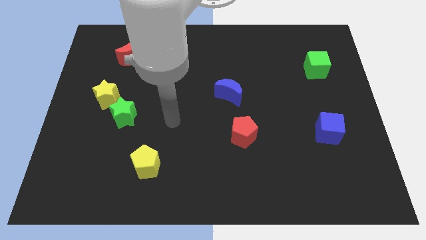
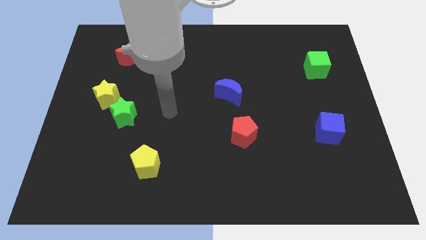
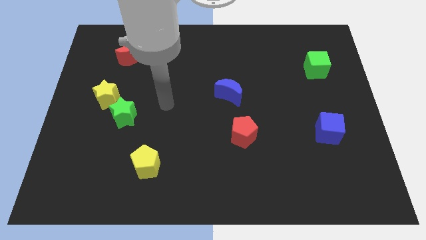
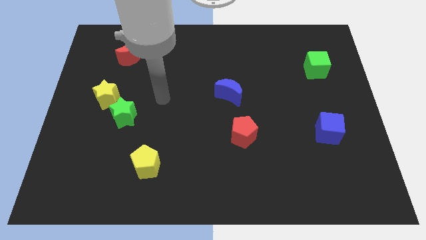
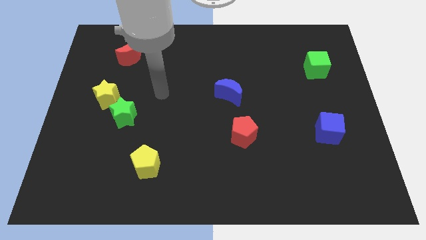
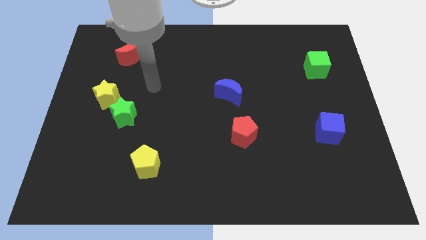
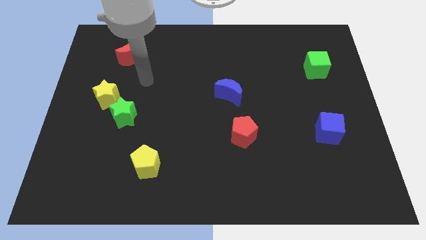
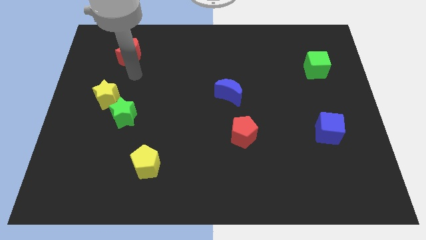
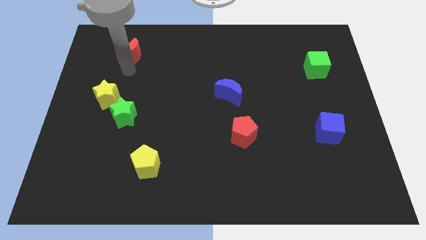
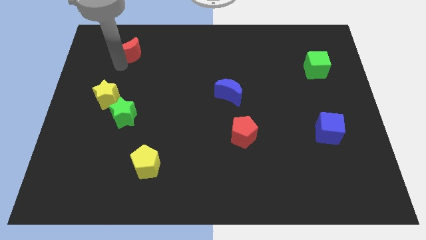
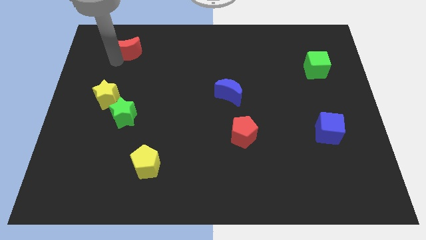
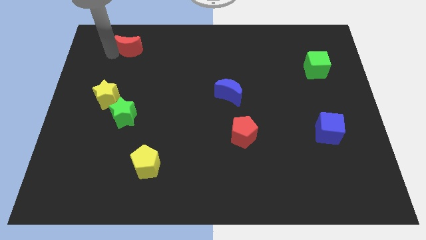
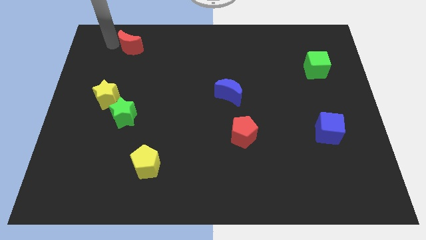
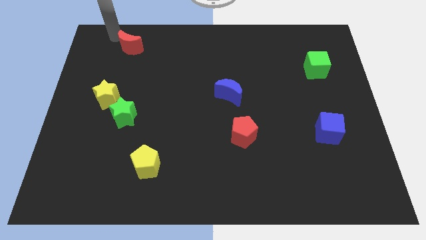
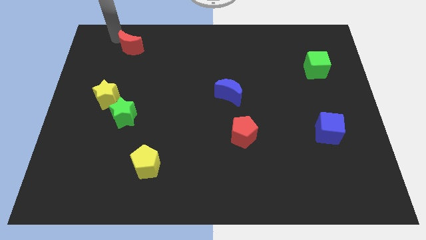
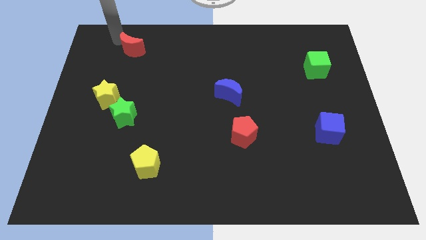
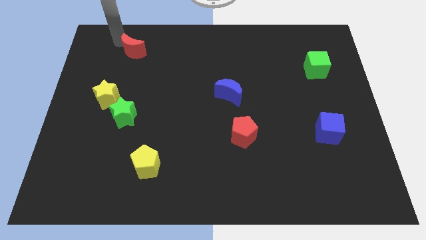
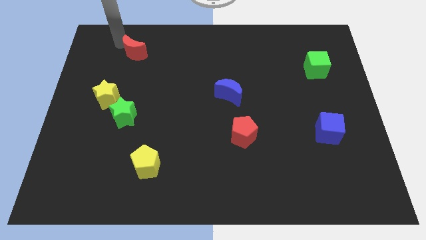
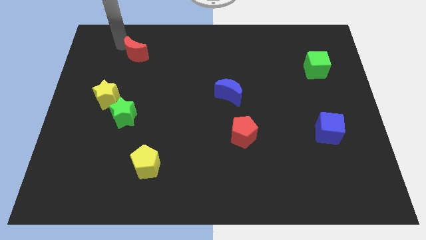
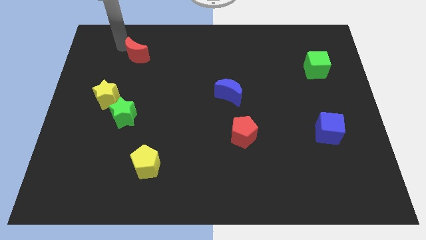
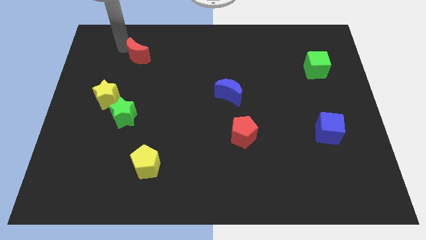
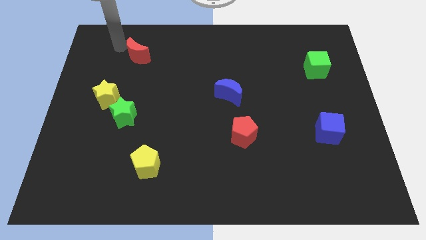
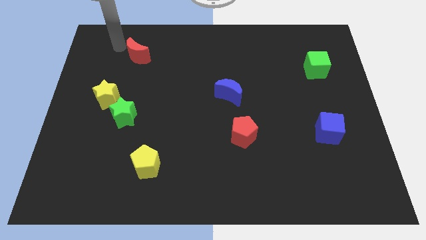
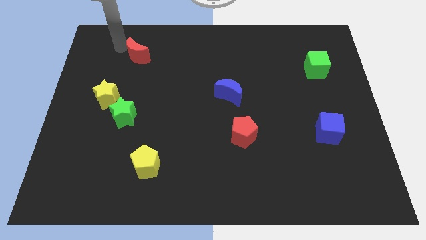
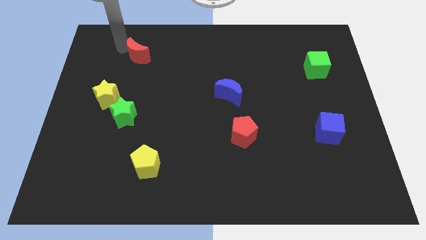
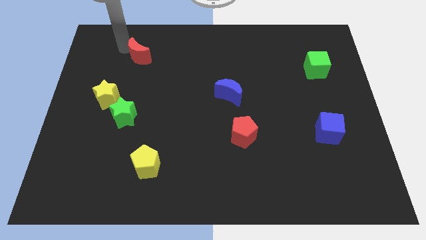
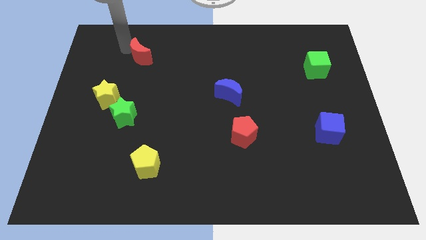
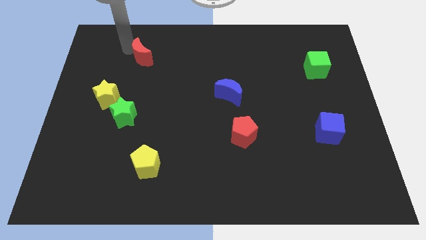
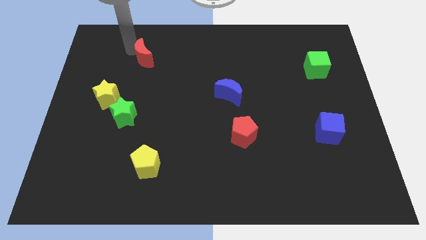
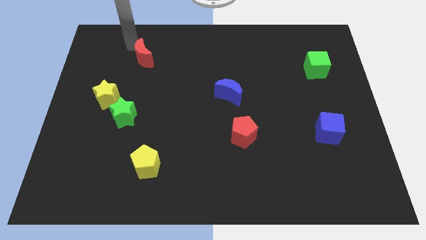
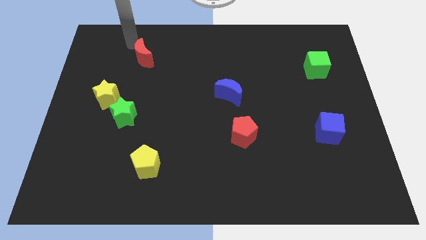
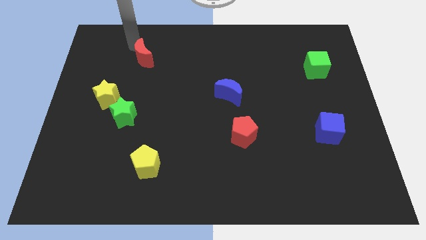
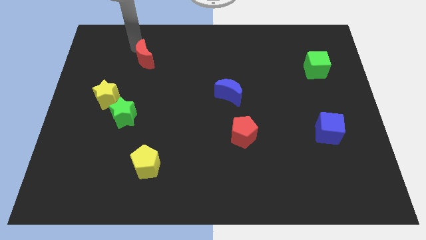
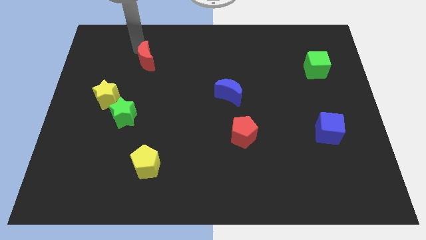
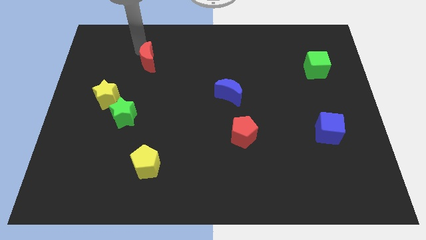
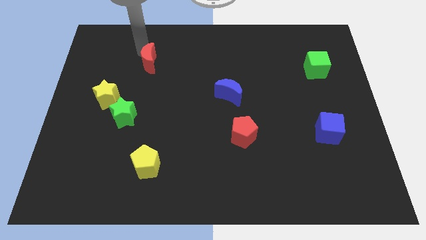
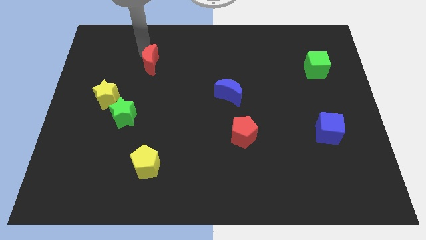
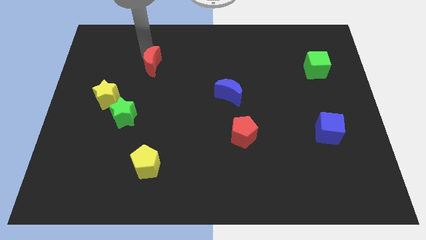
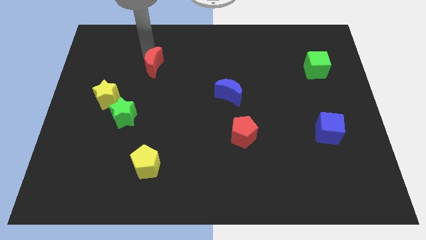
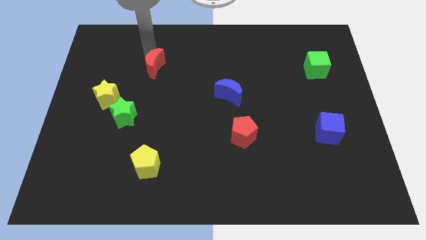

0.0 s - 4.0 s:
move the red moon diagonally downwards and right a little

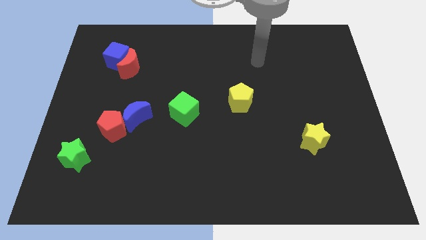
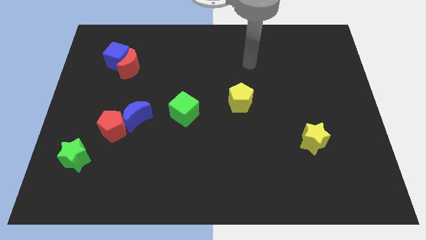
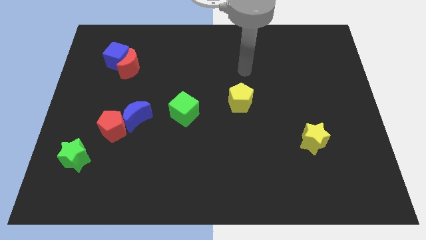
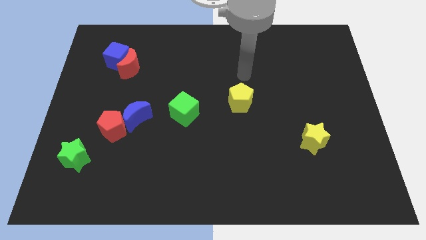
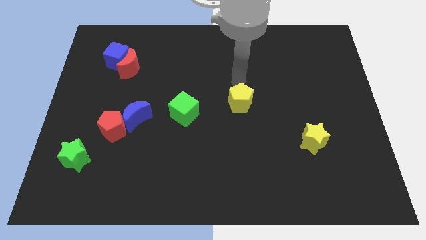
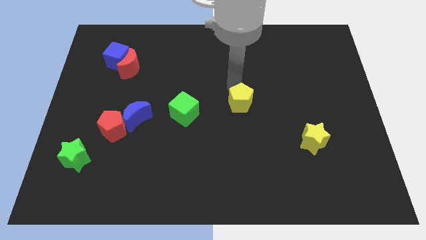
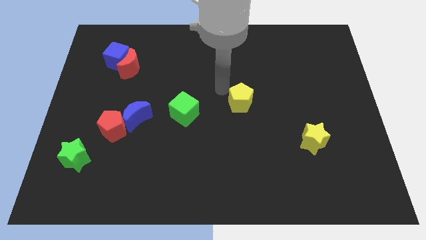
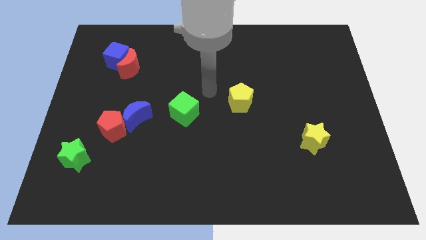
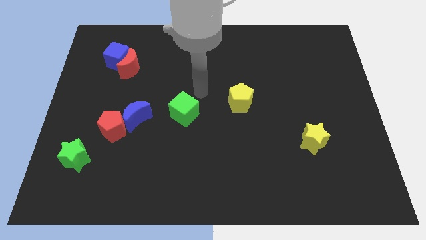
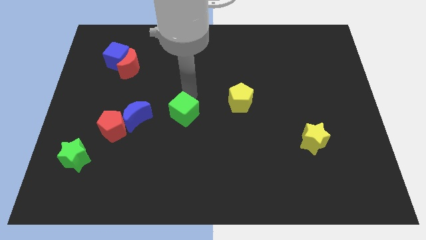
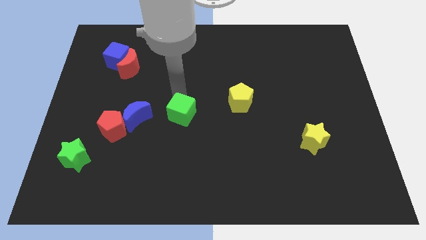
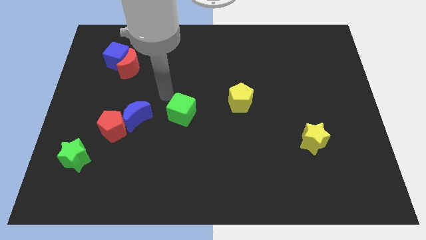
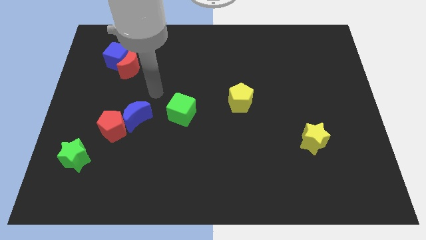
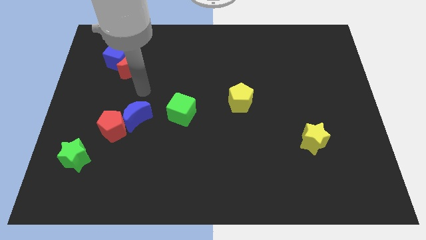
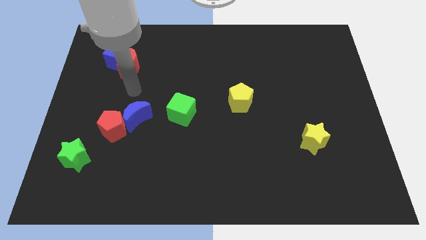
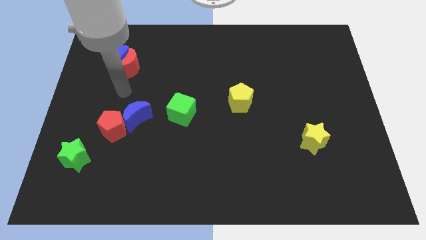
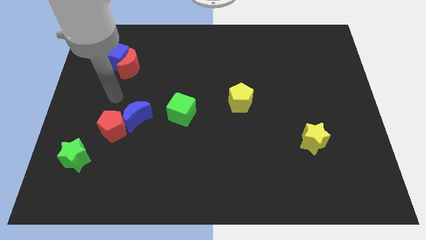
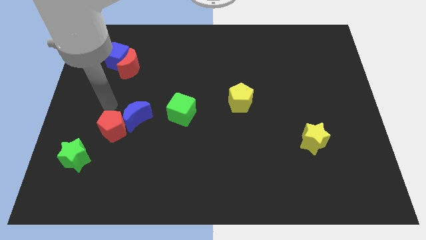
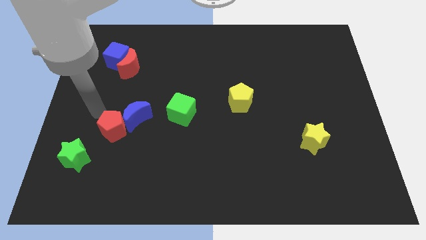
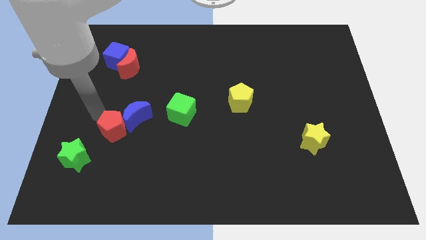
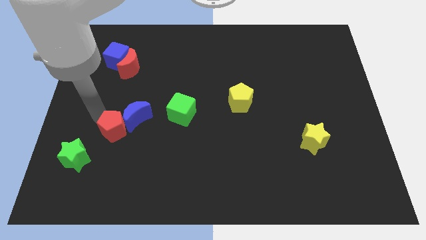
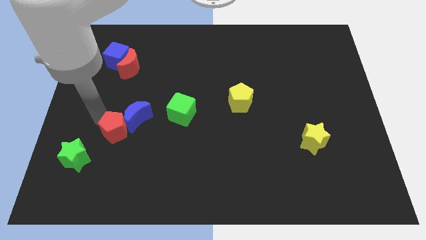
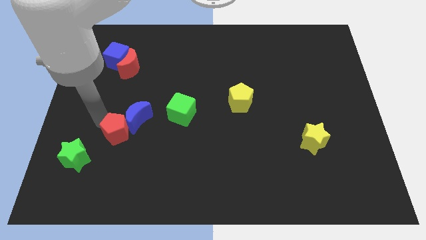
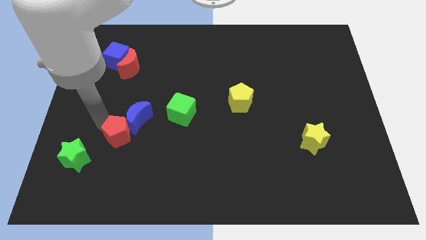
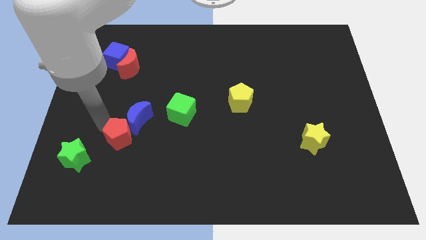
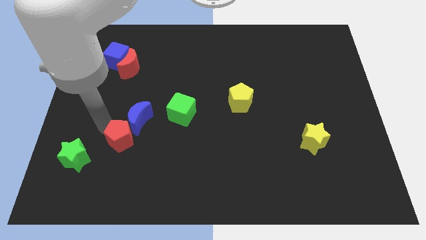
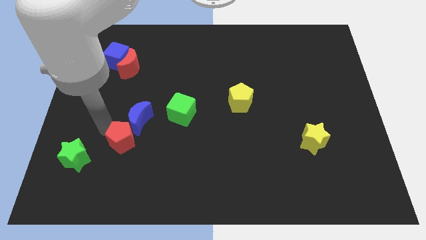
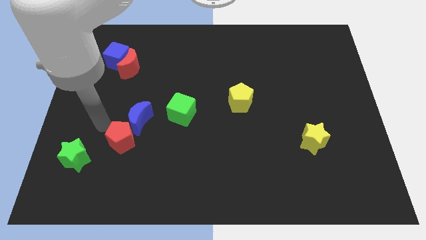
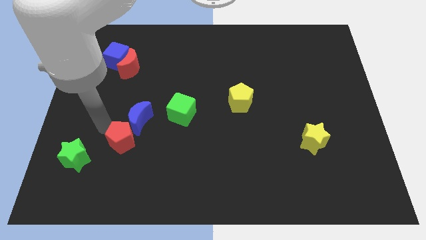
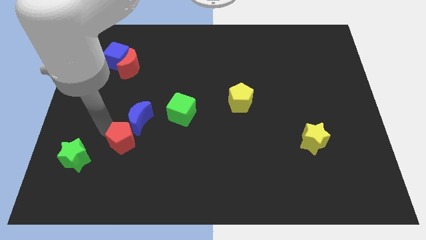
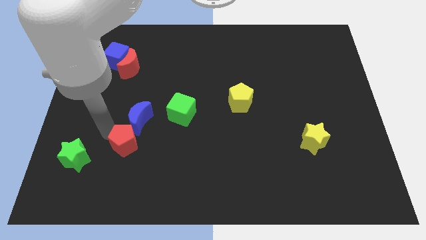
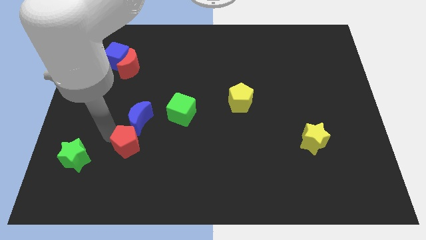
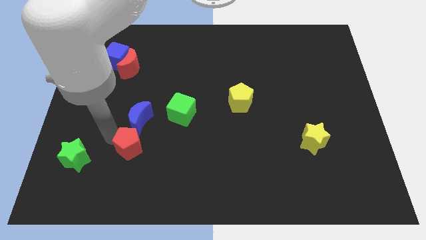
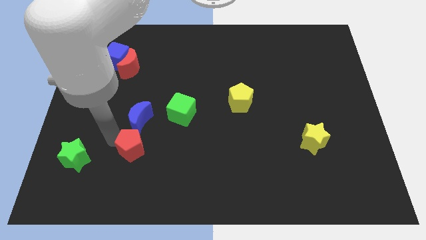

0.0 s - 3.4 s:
push the red pentagon a little bit downwards and then to the right

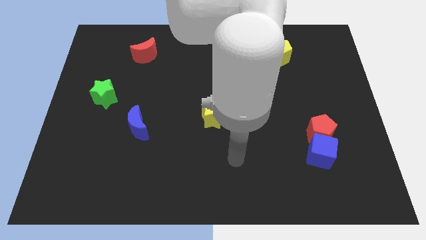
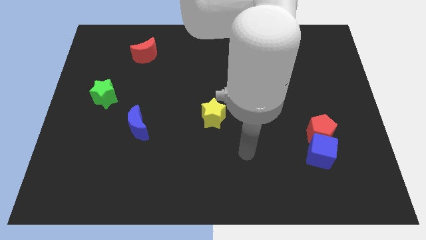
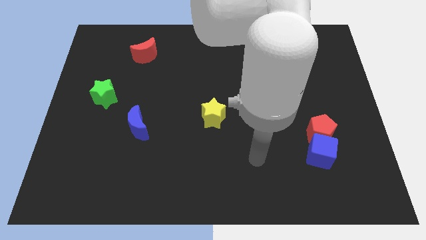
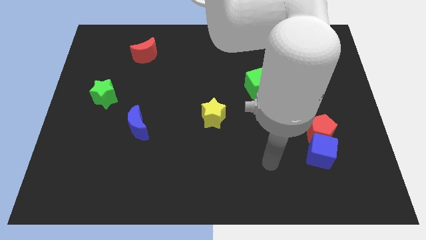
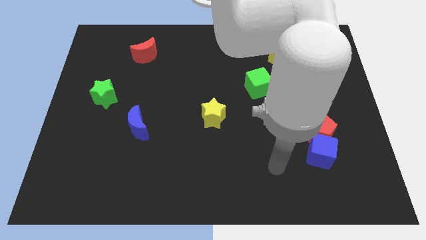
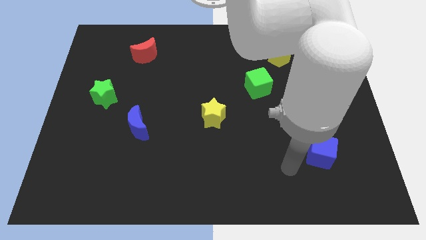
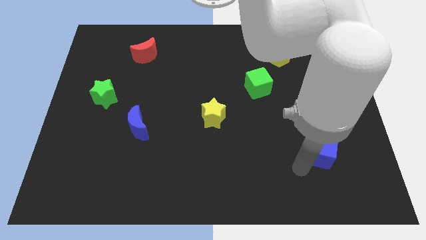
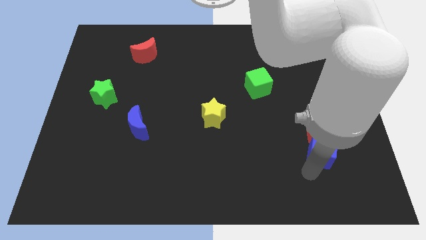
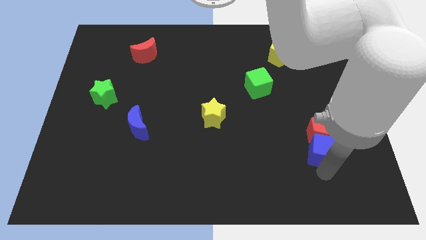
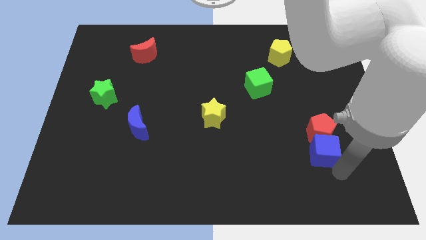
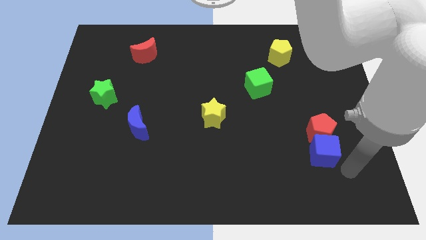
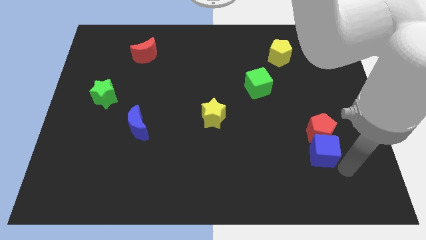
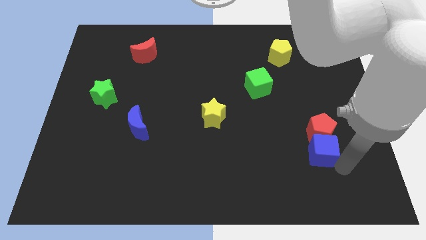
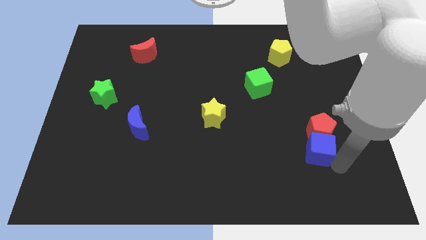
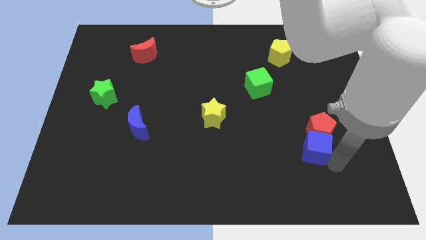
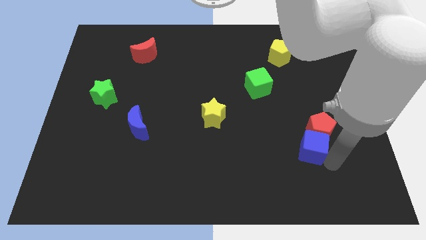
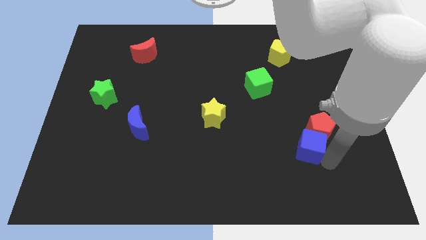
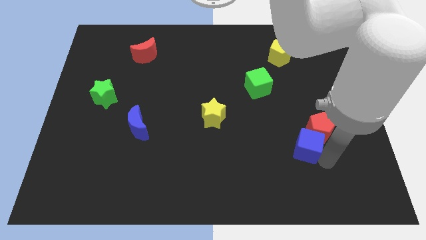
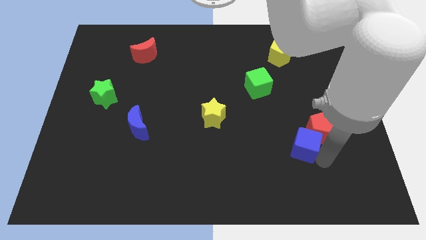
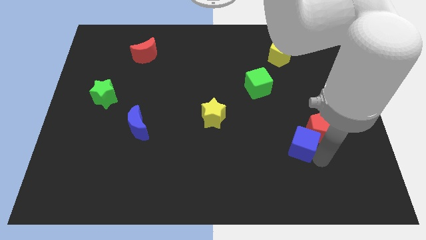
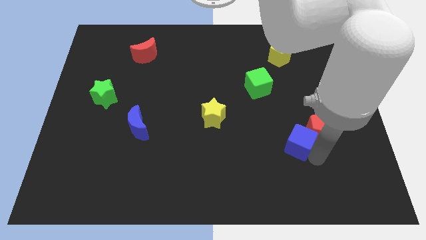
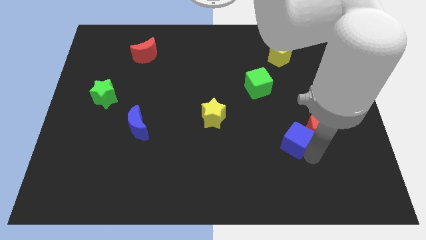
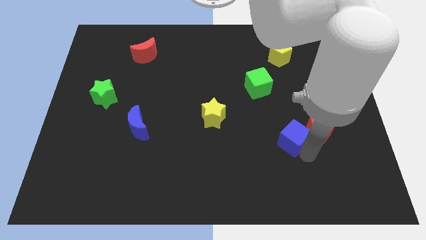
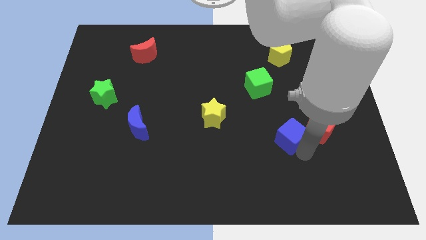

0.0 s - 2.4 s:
slightly push the blue cube upwards and left diagonally
